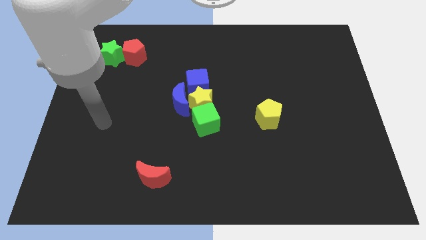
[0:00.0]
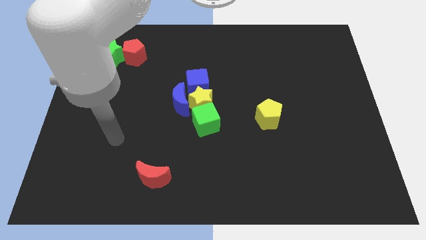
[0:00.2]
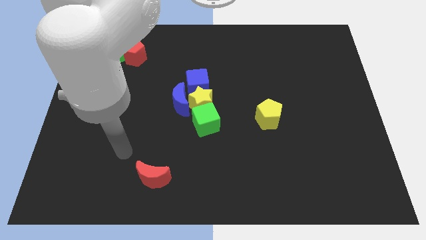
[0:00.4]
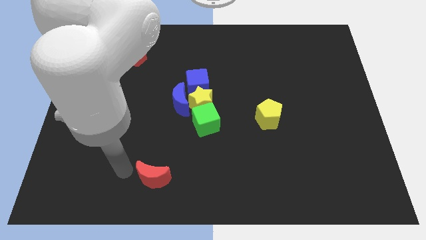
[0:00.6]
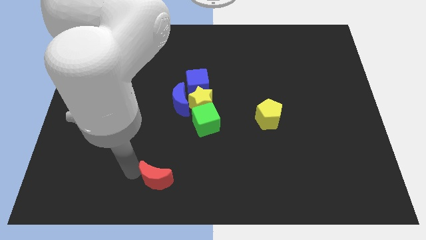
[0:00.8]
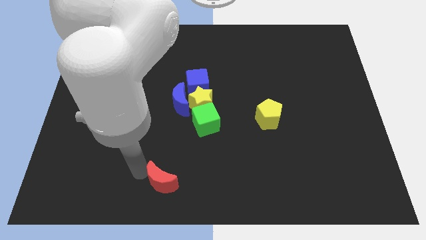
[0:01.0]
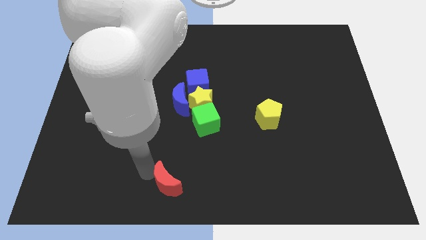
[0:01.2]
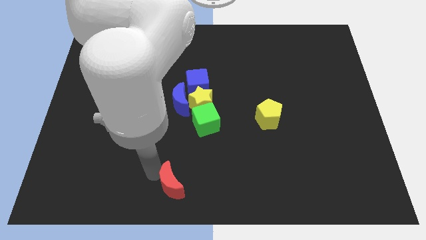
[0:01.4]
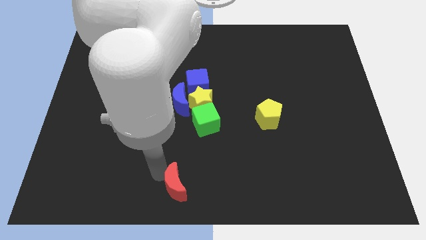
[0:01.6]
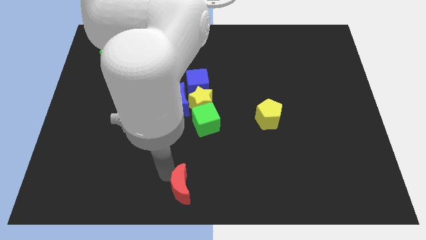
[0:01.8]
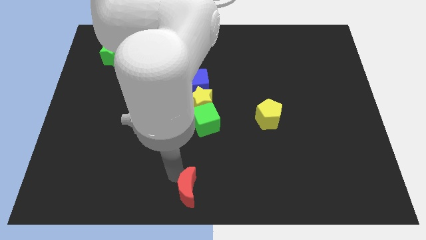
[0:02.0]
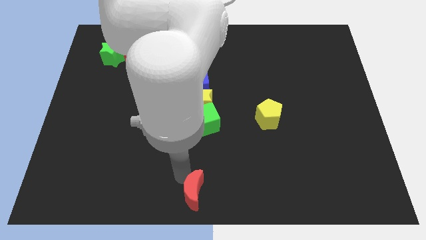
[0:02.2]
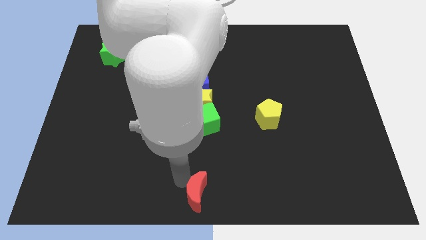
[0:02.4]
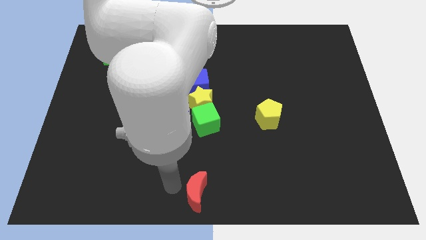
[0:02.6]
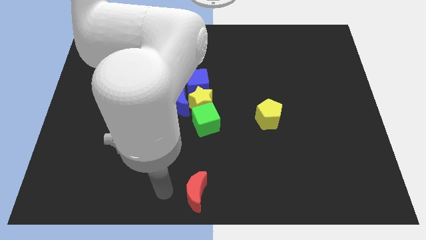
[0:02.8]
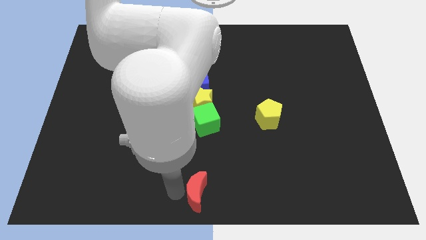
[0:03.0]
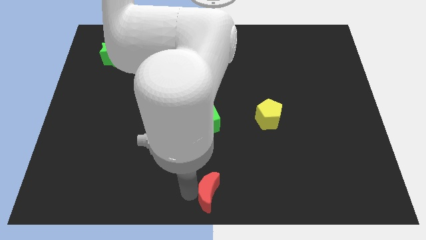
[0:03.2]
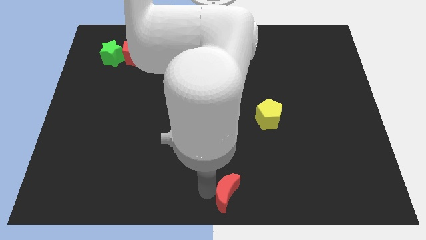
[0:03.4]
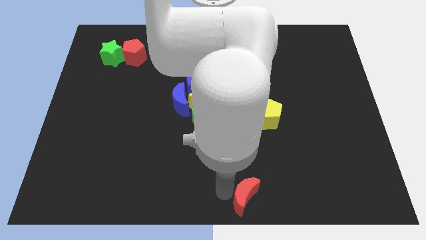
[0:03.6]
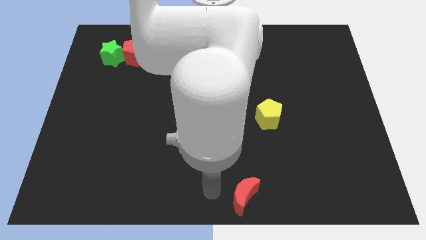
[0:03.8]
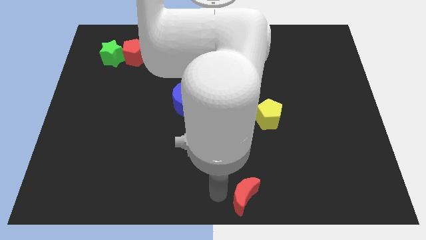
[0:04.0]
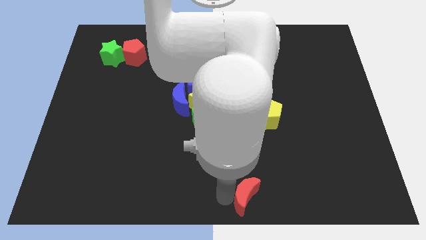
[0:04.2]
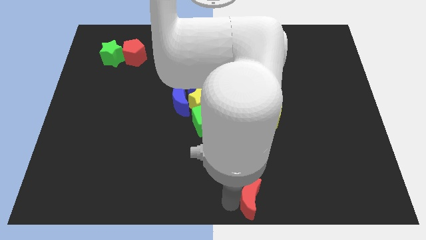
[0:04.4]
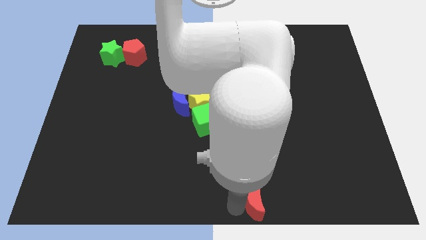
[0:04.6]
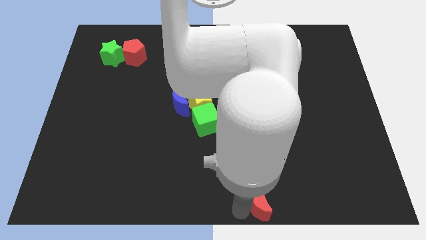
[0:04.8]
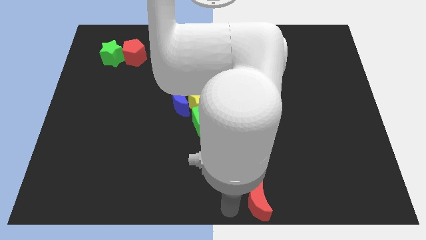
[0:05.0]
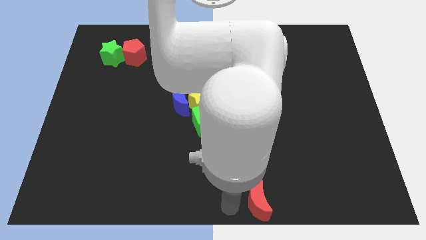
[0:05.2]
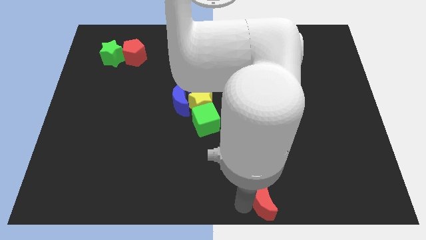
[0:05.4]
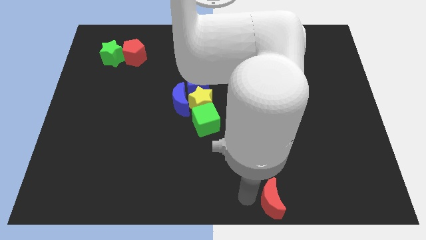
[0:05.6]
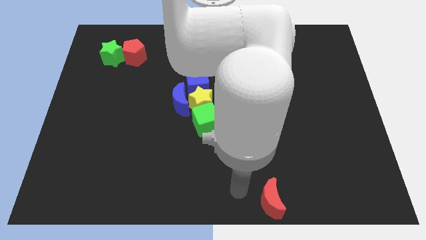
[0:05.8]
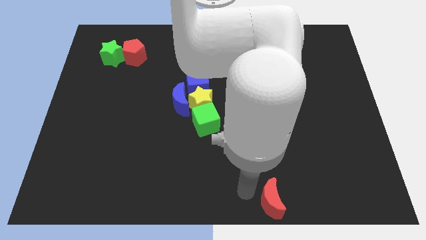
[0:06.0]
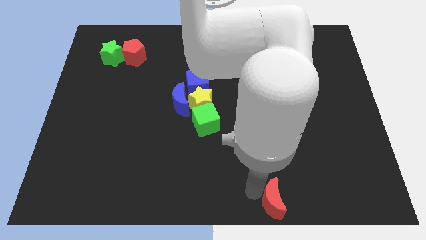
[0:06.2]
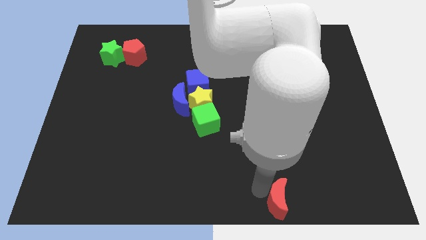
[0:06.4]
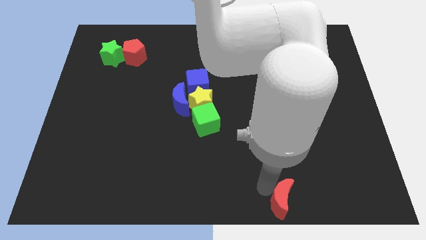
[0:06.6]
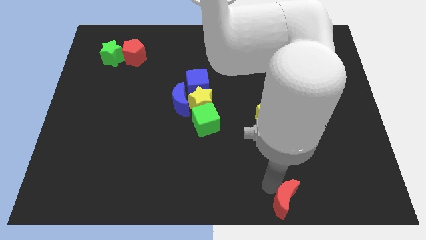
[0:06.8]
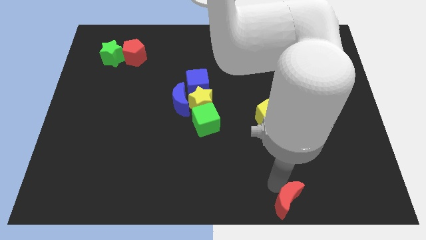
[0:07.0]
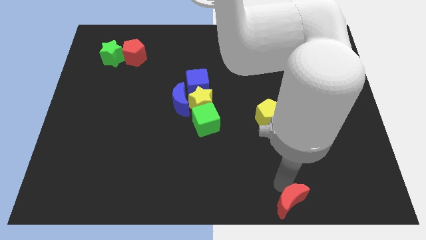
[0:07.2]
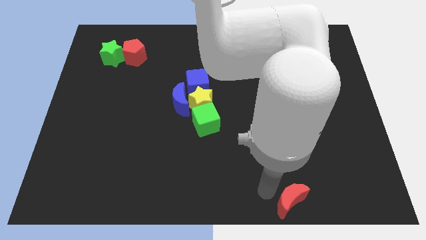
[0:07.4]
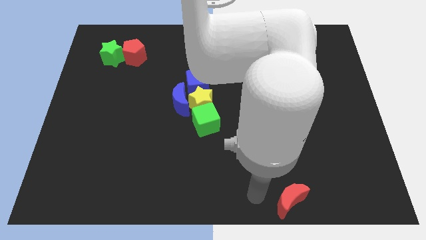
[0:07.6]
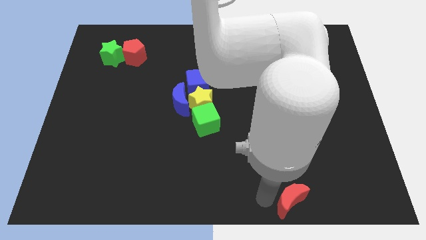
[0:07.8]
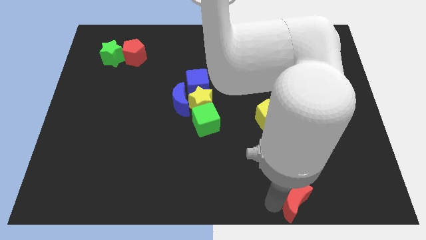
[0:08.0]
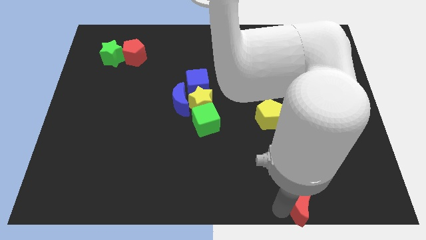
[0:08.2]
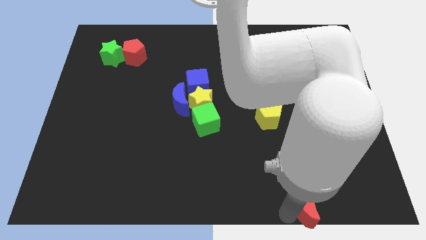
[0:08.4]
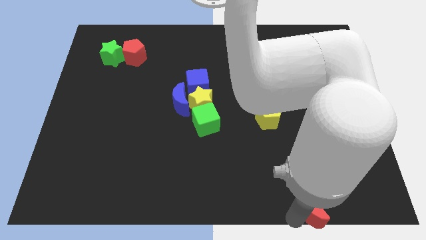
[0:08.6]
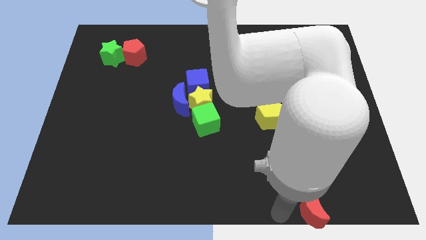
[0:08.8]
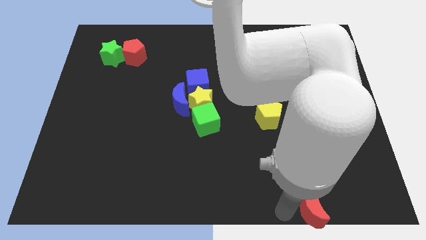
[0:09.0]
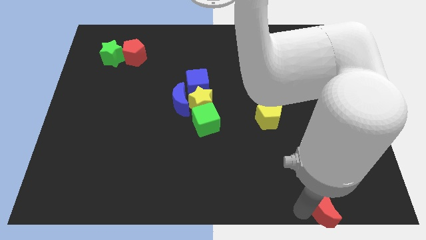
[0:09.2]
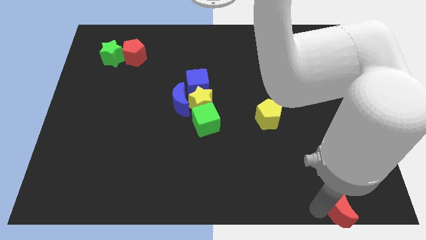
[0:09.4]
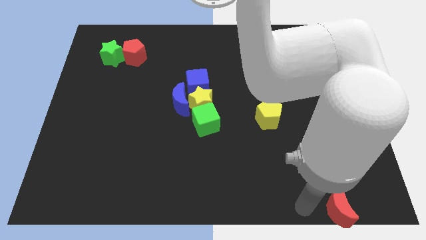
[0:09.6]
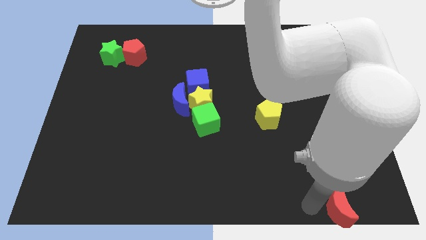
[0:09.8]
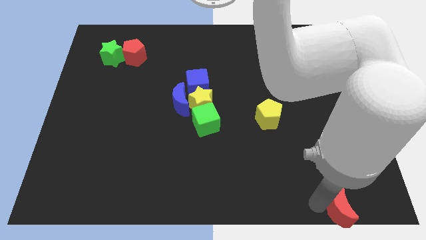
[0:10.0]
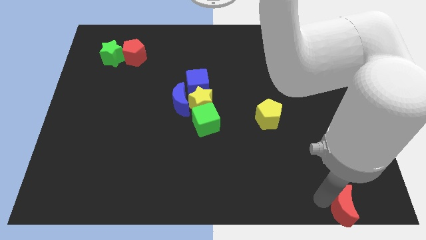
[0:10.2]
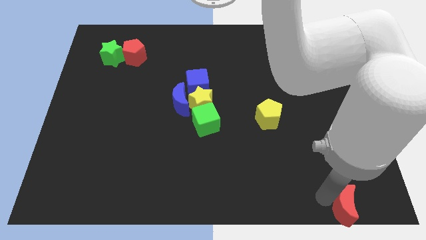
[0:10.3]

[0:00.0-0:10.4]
put the red moon to the lower right corner

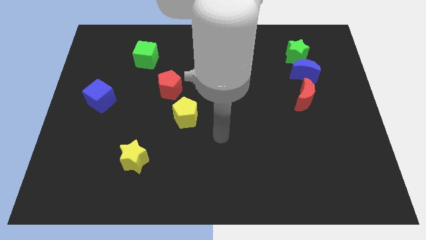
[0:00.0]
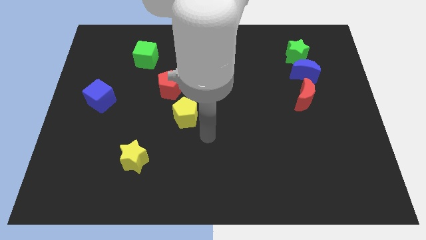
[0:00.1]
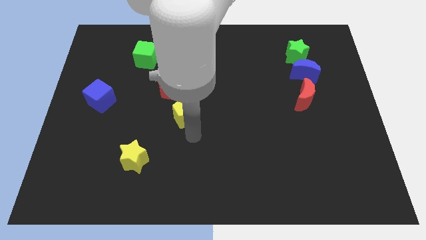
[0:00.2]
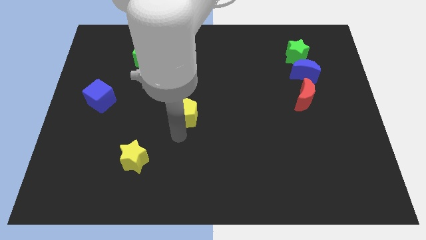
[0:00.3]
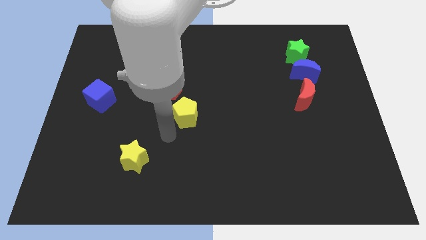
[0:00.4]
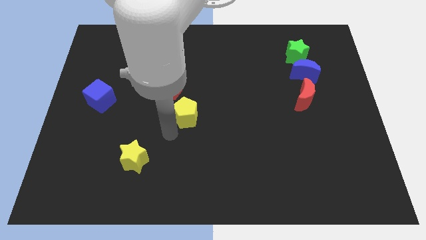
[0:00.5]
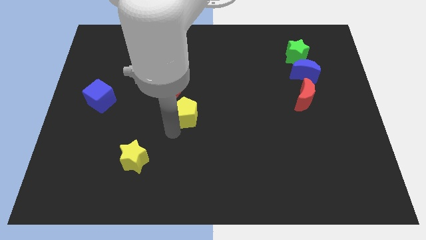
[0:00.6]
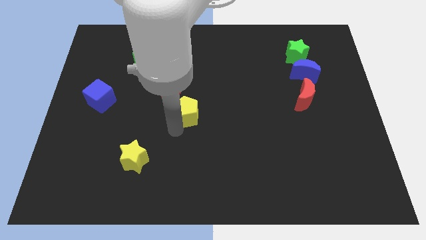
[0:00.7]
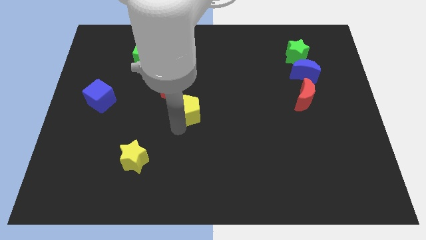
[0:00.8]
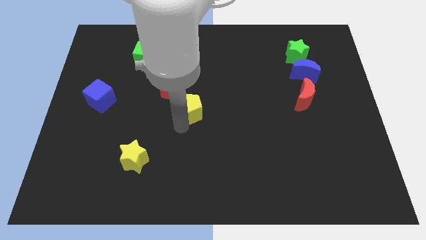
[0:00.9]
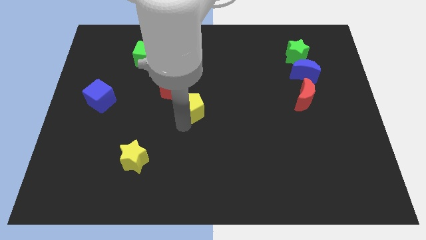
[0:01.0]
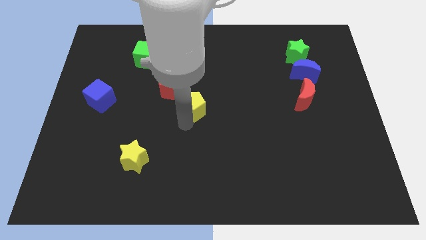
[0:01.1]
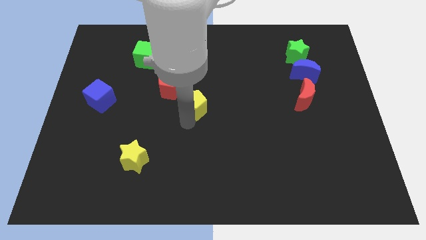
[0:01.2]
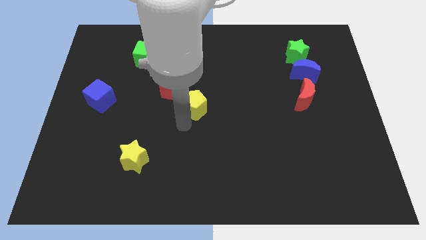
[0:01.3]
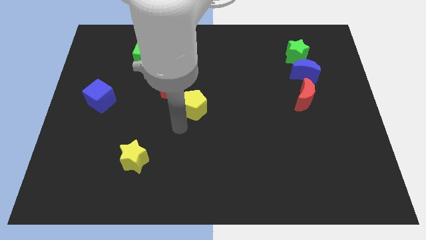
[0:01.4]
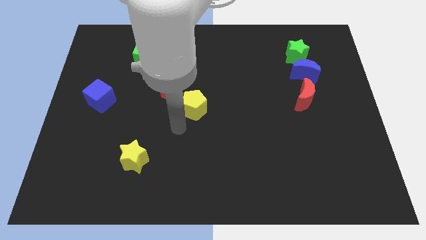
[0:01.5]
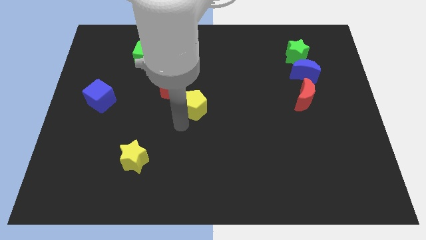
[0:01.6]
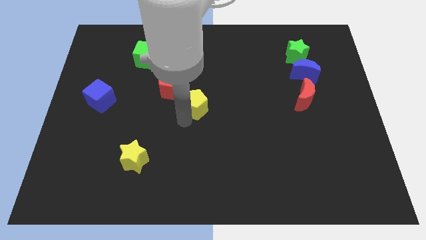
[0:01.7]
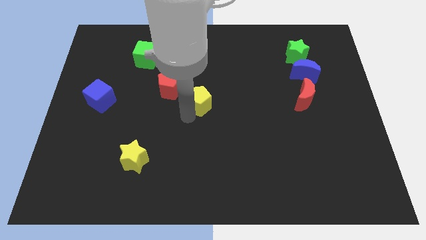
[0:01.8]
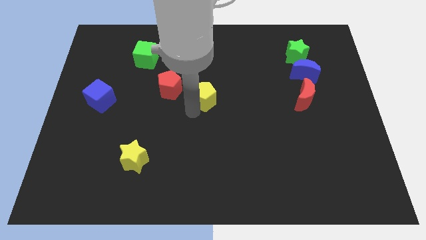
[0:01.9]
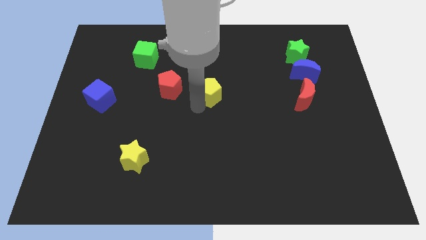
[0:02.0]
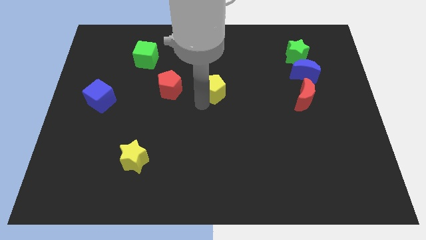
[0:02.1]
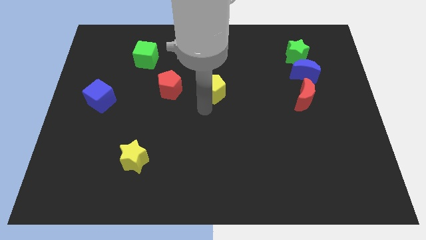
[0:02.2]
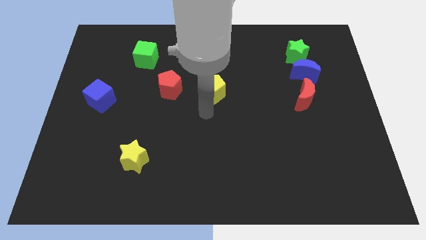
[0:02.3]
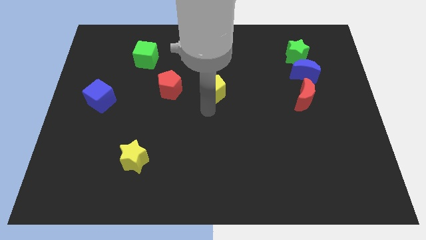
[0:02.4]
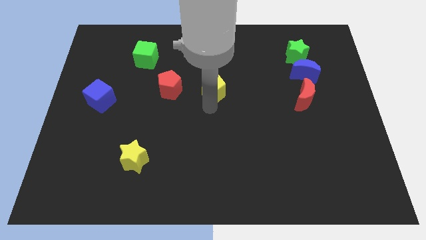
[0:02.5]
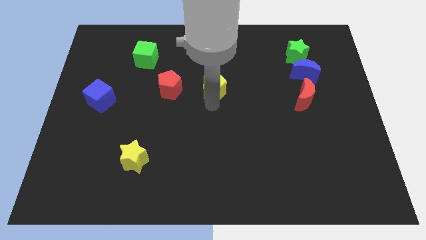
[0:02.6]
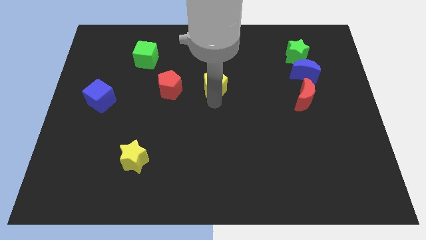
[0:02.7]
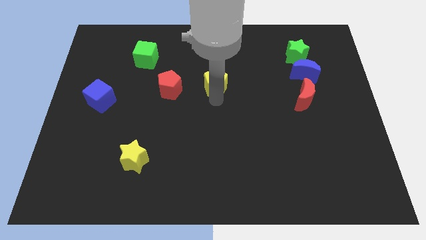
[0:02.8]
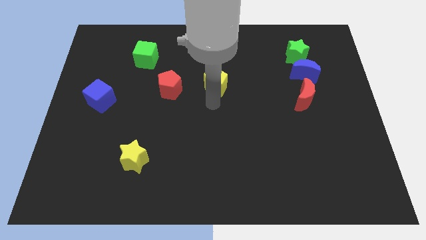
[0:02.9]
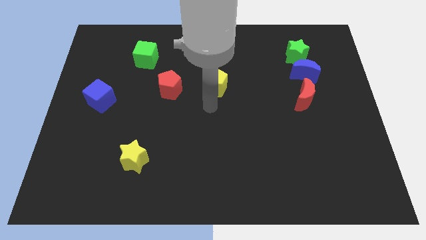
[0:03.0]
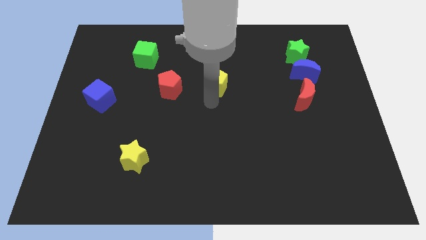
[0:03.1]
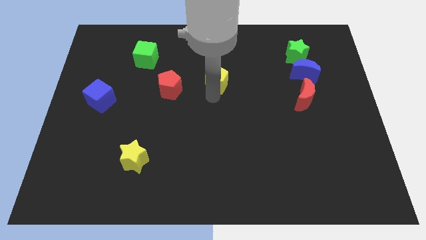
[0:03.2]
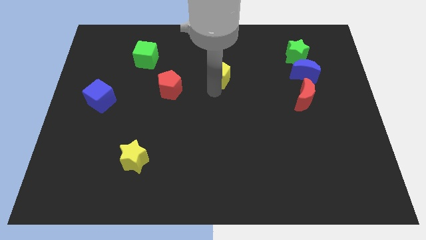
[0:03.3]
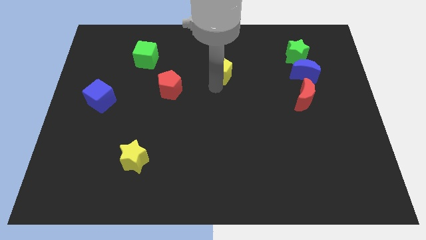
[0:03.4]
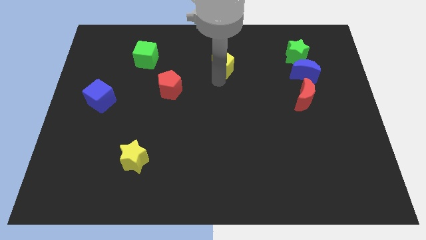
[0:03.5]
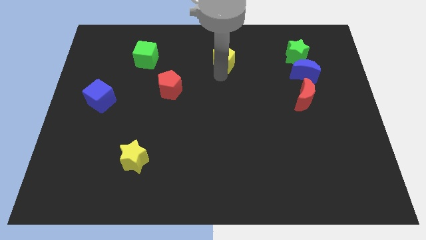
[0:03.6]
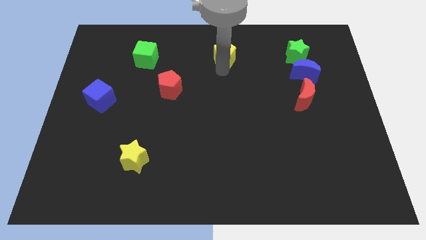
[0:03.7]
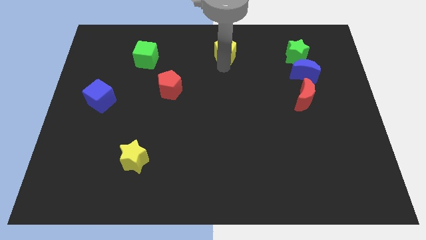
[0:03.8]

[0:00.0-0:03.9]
move the yellow pentagon to the top side
